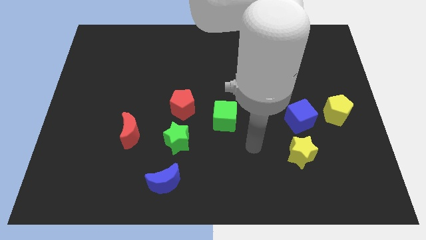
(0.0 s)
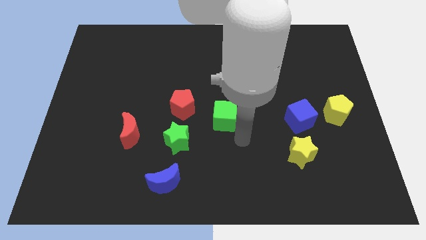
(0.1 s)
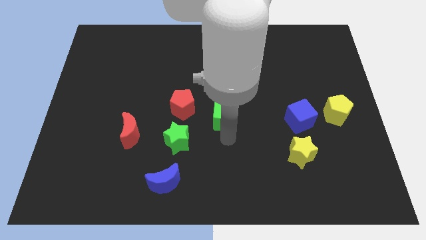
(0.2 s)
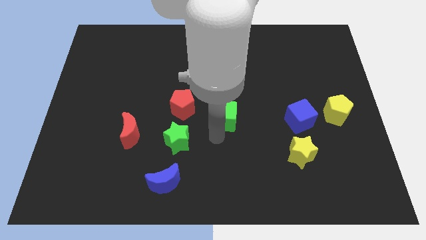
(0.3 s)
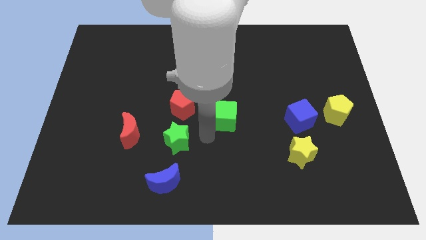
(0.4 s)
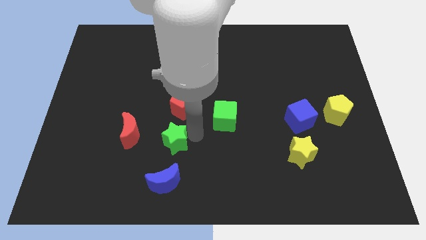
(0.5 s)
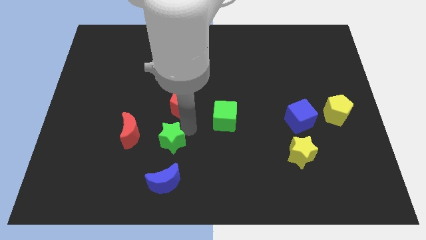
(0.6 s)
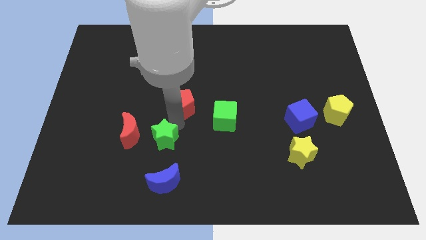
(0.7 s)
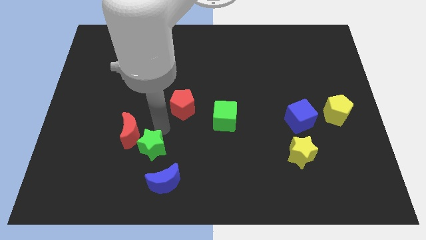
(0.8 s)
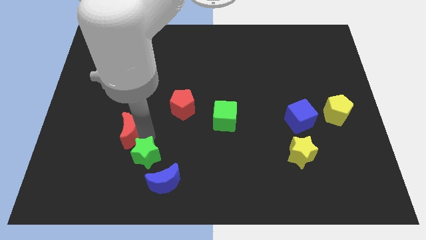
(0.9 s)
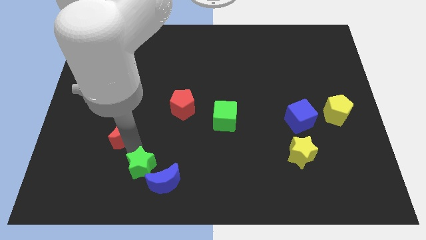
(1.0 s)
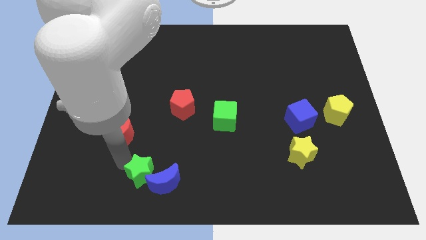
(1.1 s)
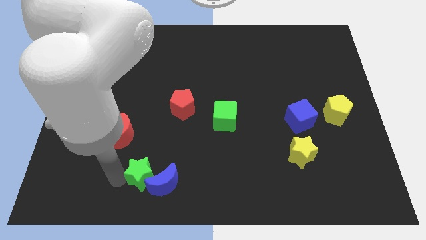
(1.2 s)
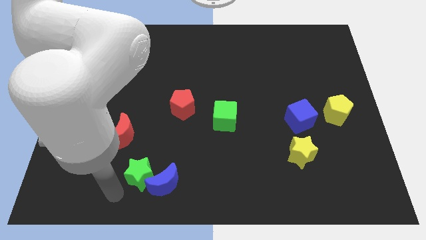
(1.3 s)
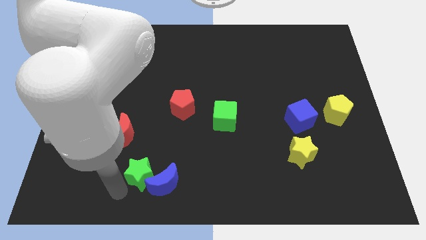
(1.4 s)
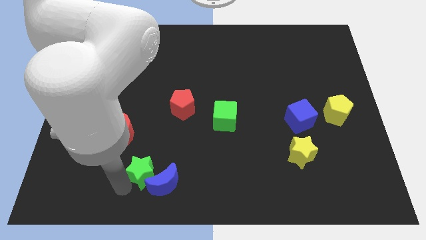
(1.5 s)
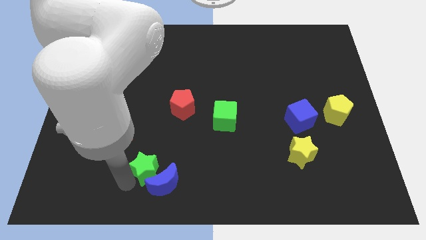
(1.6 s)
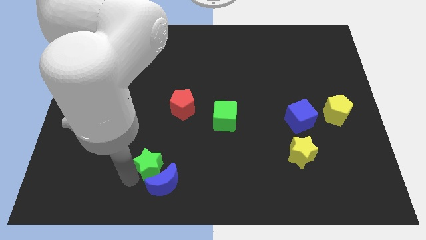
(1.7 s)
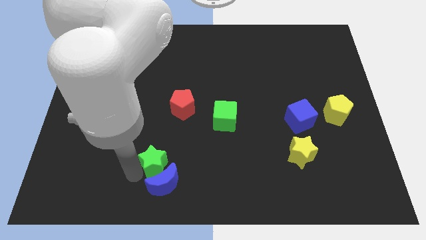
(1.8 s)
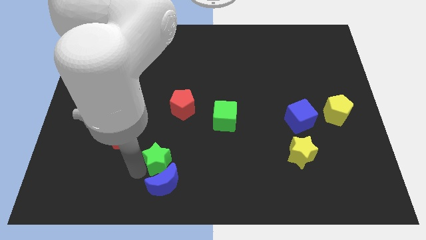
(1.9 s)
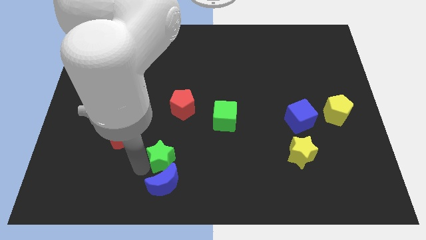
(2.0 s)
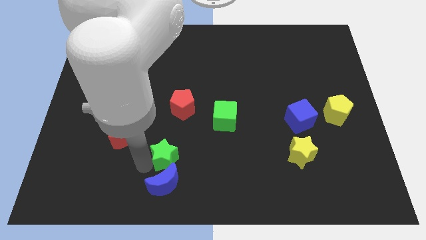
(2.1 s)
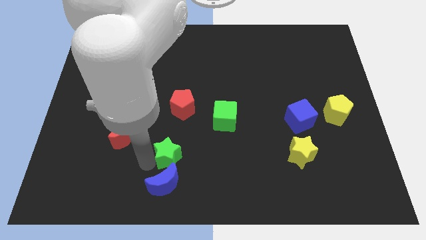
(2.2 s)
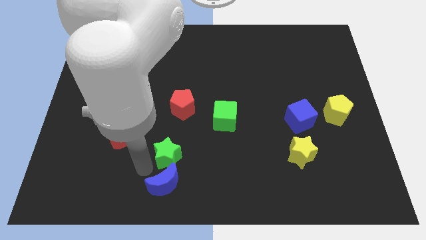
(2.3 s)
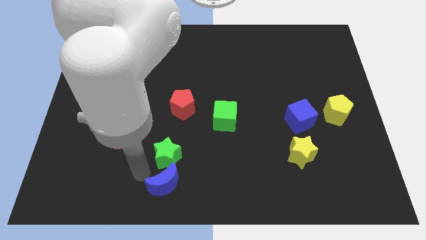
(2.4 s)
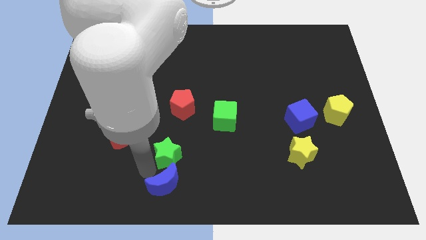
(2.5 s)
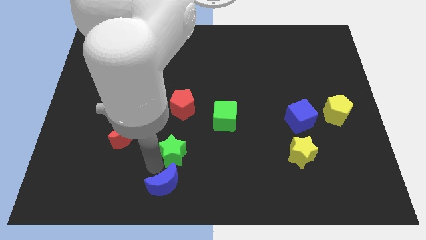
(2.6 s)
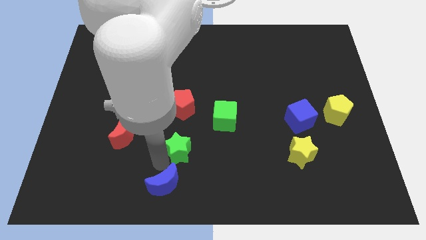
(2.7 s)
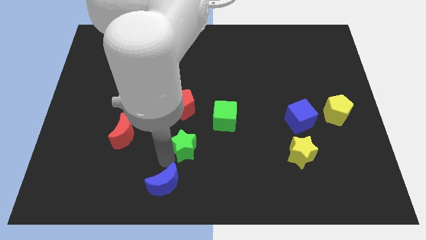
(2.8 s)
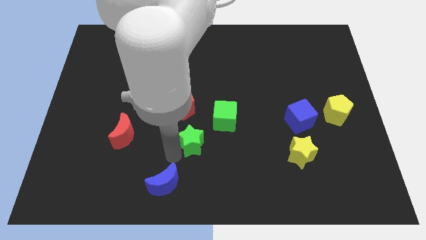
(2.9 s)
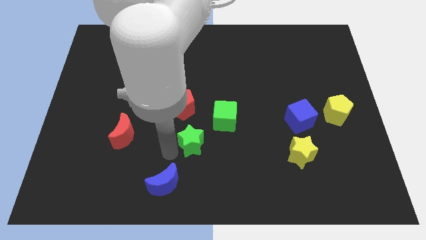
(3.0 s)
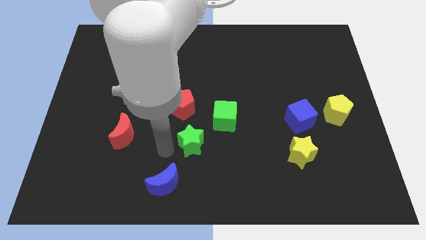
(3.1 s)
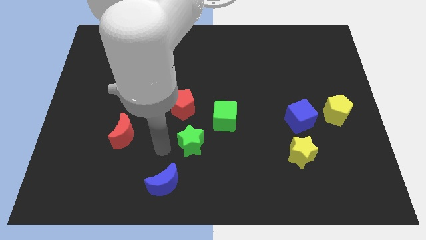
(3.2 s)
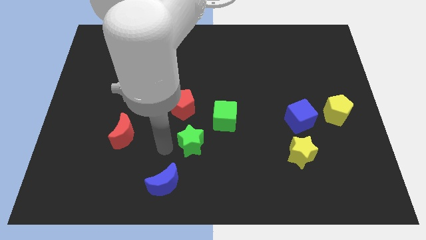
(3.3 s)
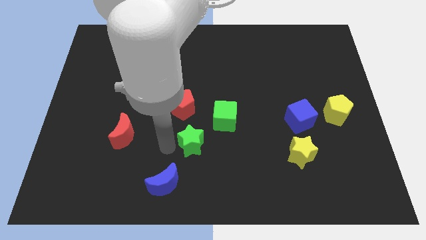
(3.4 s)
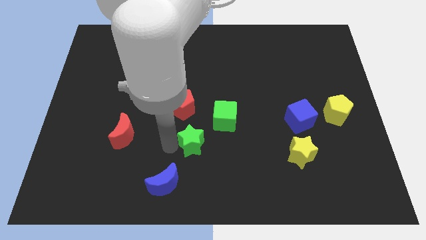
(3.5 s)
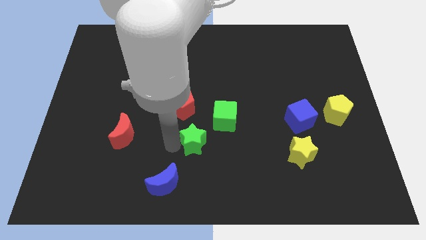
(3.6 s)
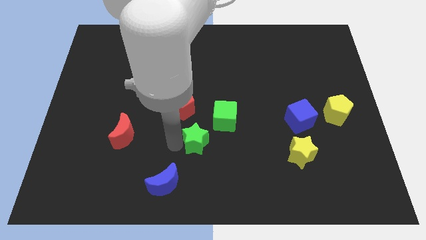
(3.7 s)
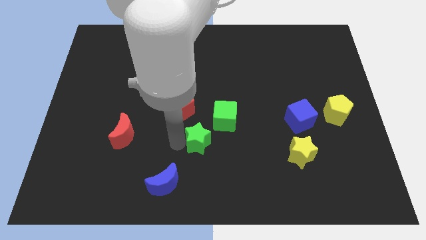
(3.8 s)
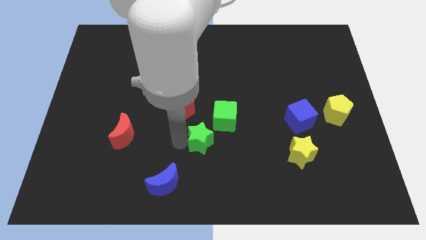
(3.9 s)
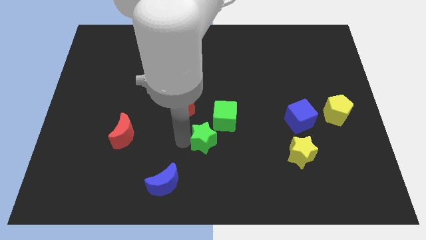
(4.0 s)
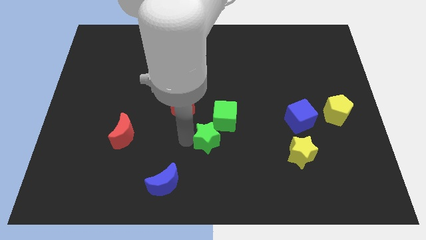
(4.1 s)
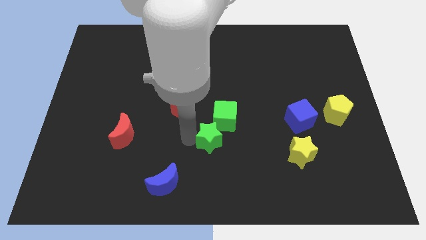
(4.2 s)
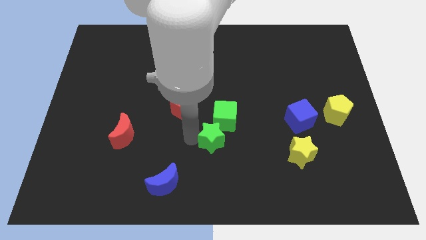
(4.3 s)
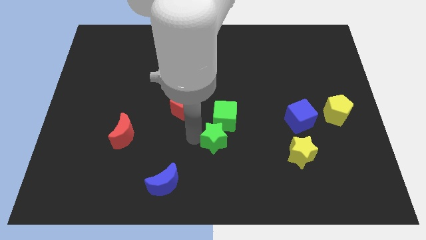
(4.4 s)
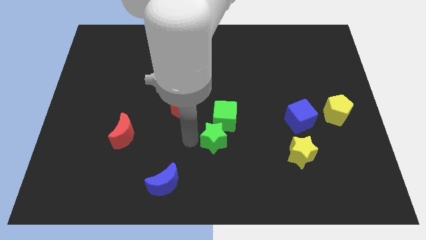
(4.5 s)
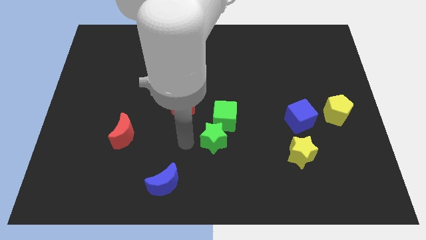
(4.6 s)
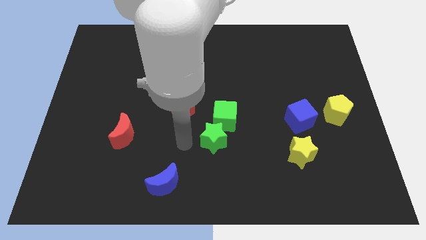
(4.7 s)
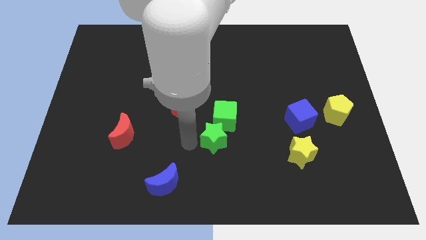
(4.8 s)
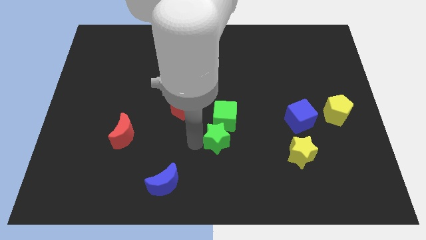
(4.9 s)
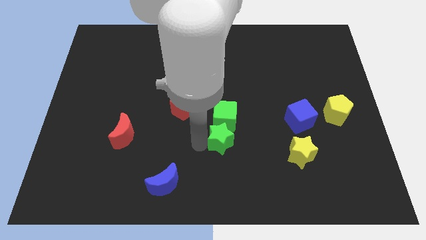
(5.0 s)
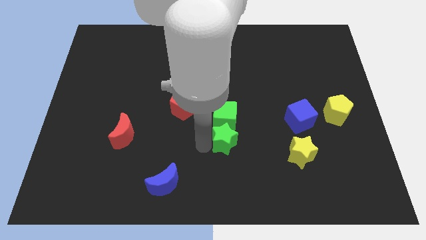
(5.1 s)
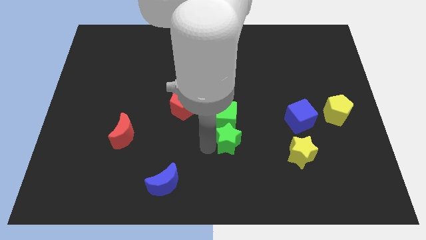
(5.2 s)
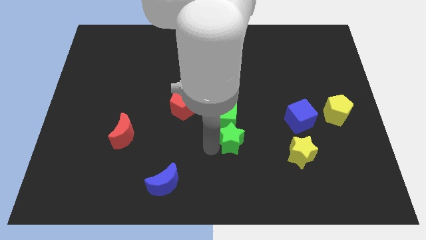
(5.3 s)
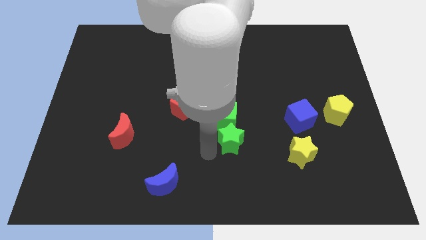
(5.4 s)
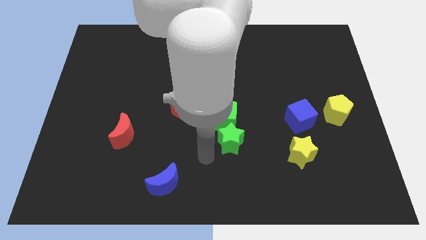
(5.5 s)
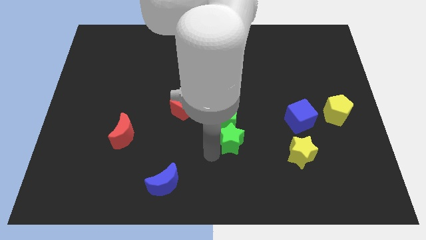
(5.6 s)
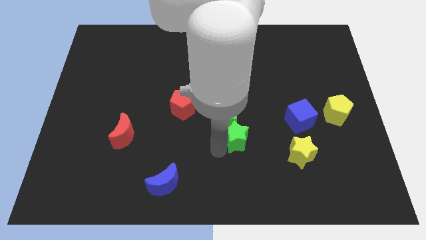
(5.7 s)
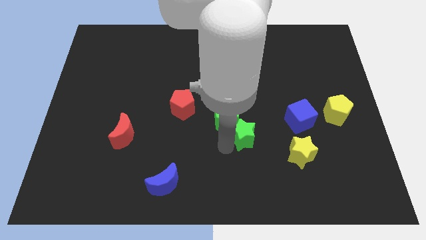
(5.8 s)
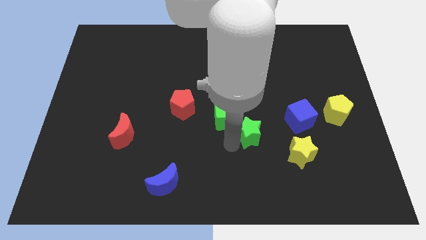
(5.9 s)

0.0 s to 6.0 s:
move the green star just right of the green cube
